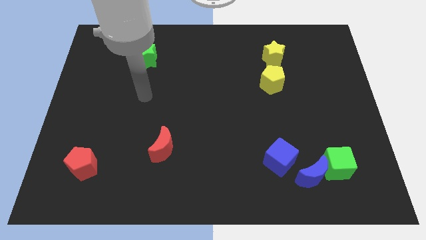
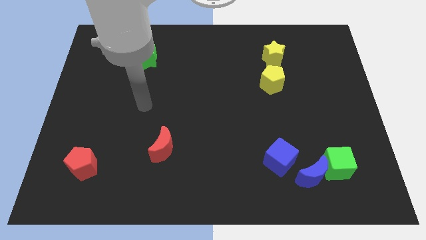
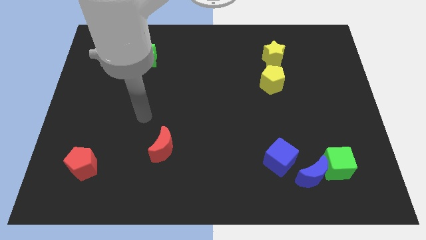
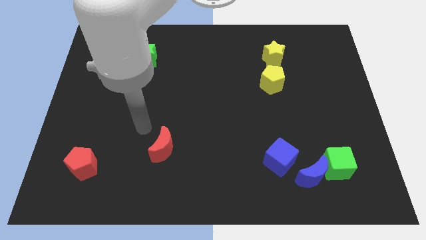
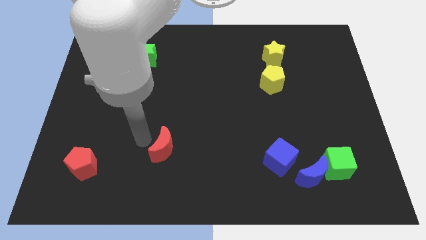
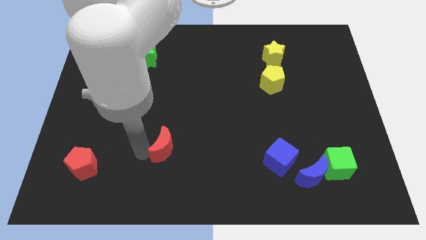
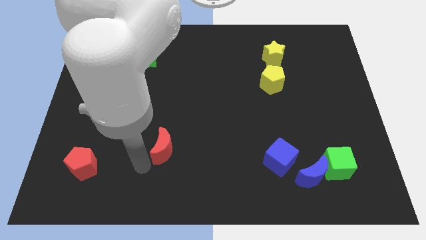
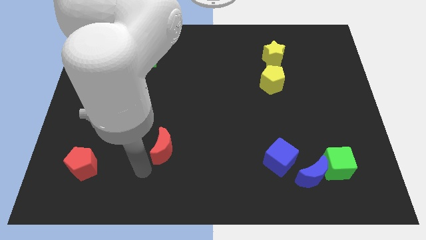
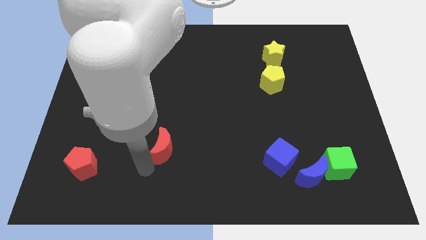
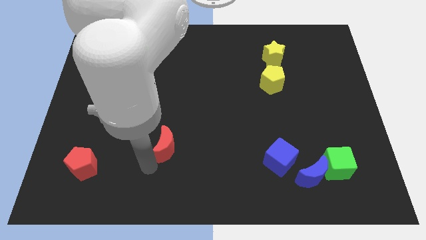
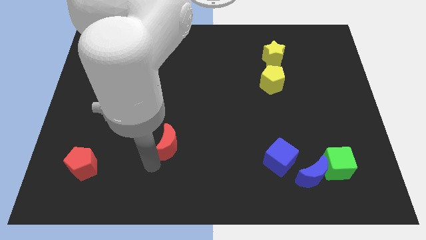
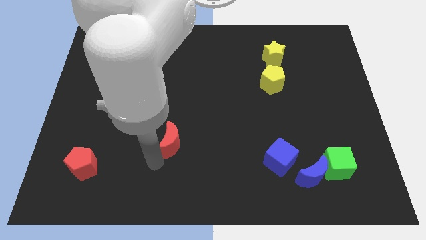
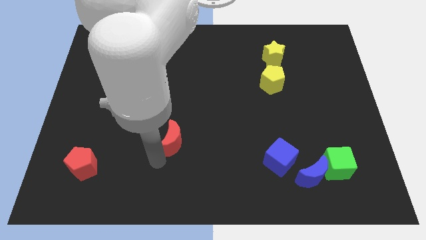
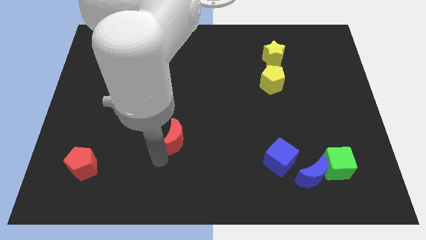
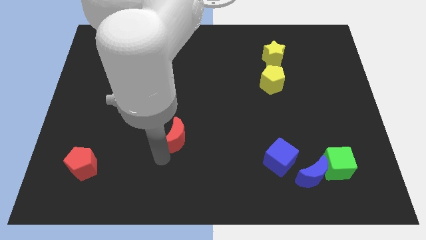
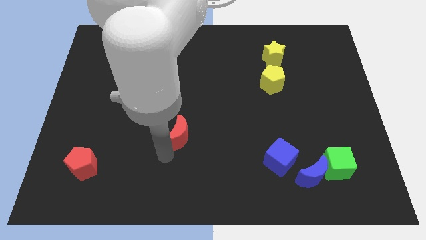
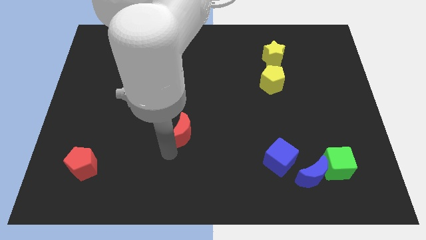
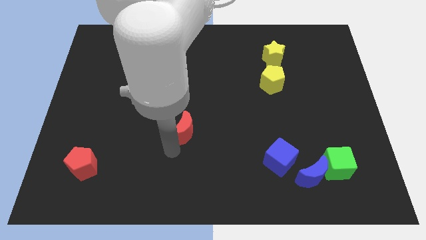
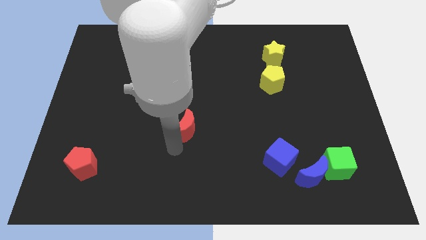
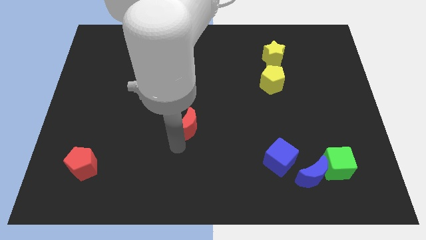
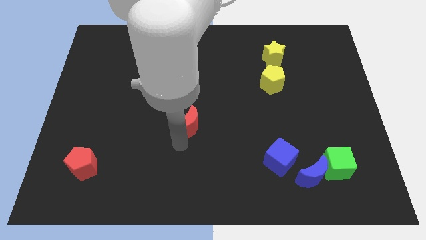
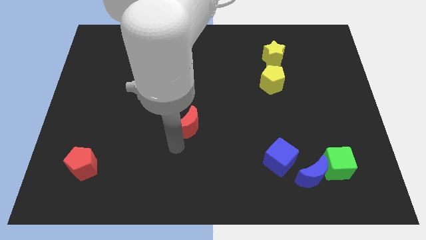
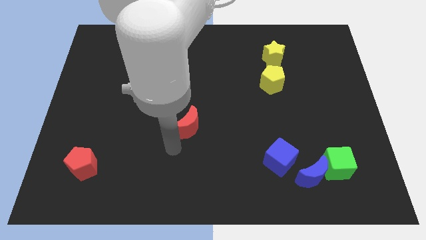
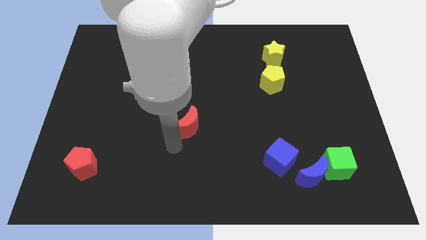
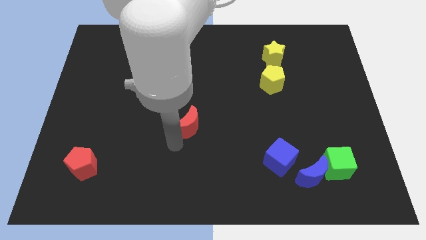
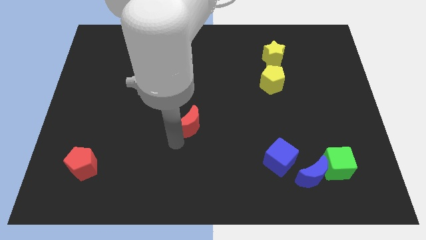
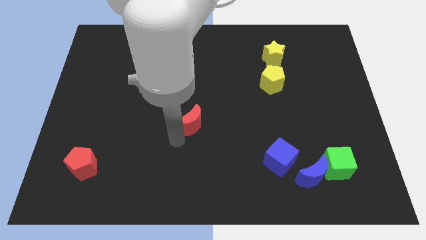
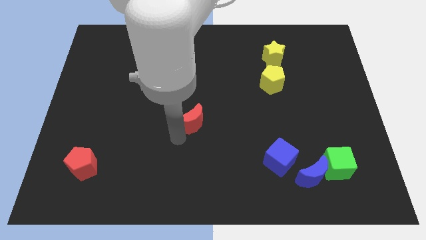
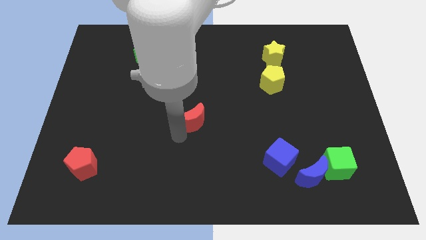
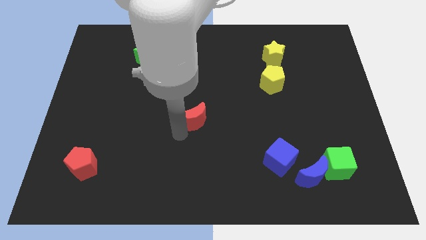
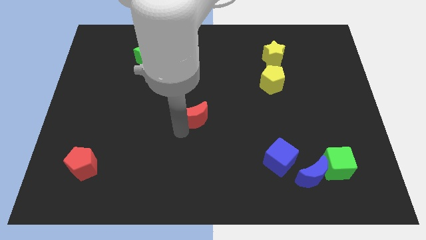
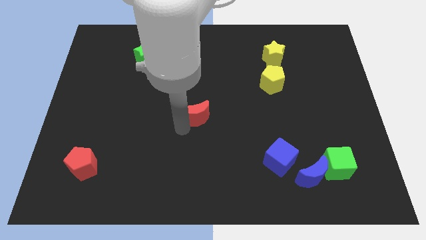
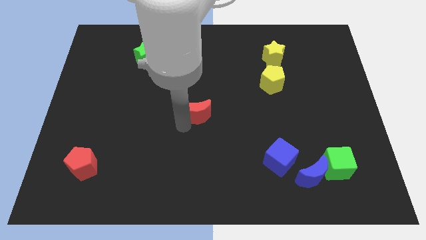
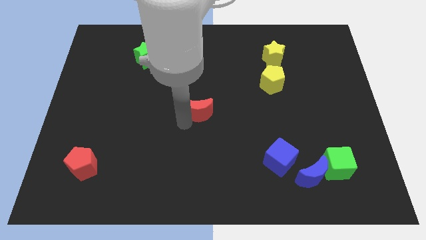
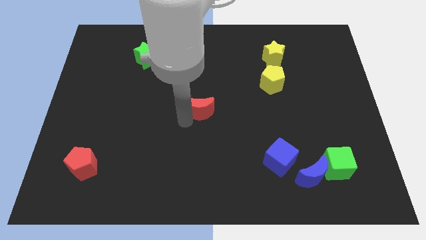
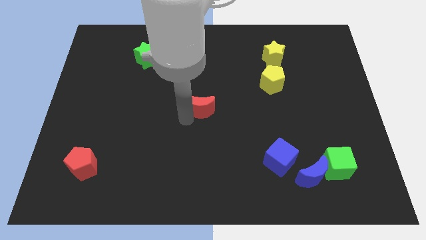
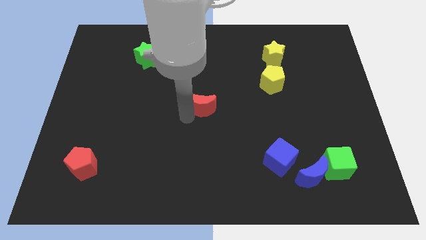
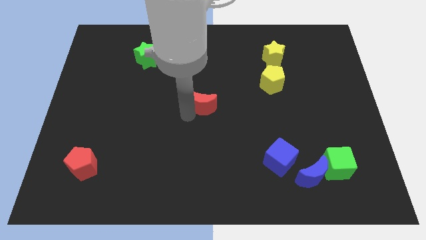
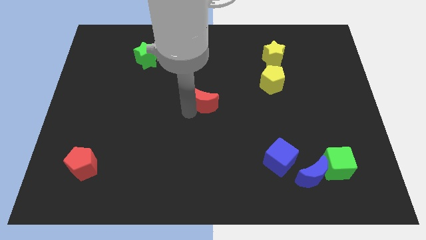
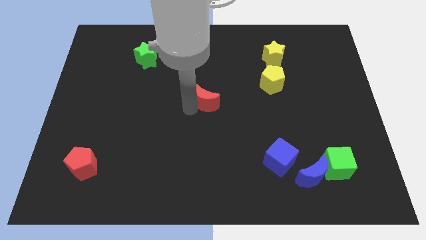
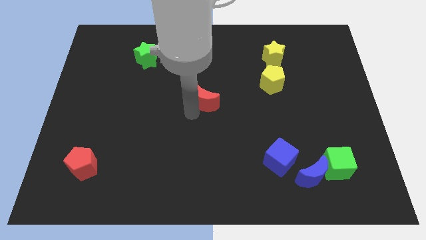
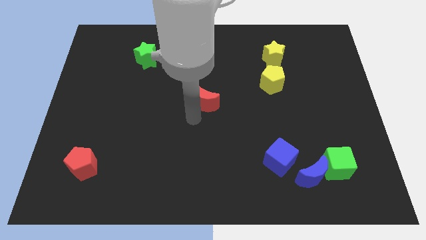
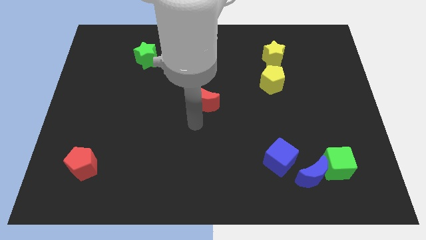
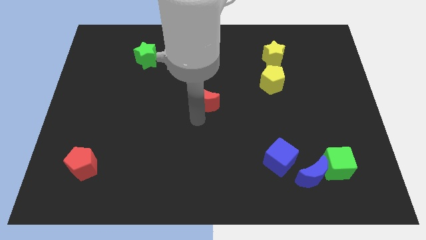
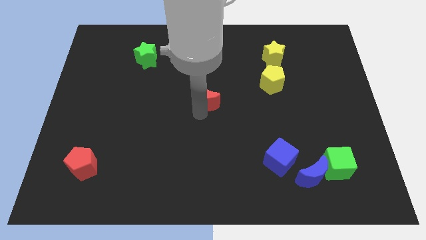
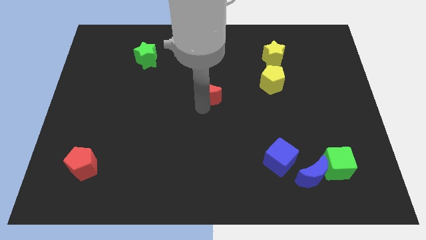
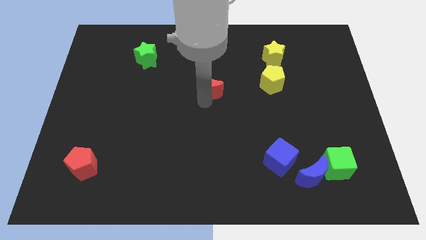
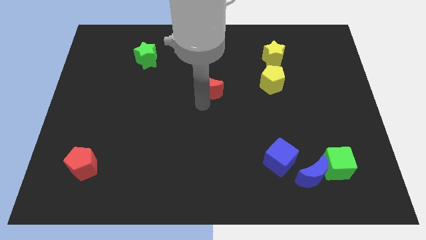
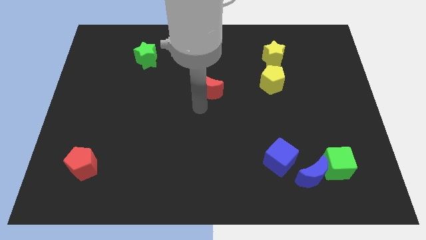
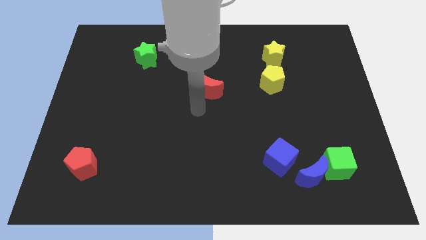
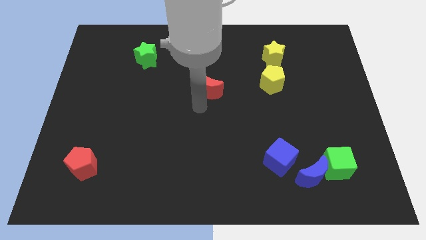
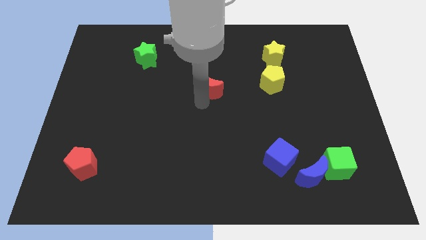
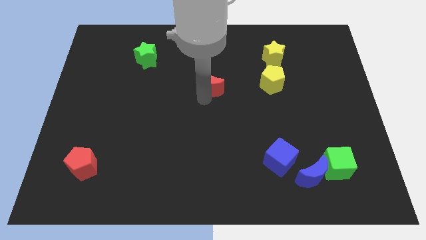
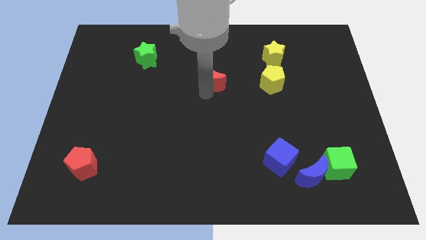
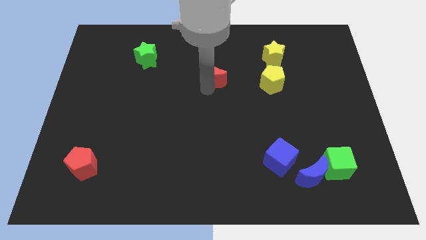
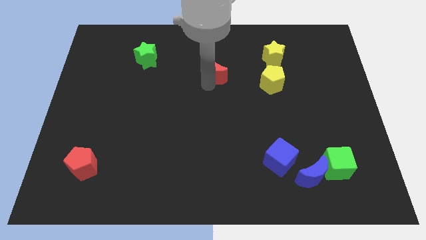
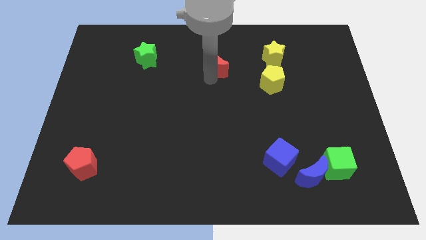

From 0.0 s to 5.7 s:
move the red moon to the left of the yellow star
